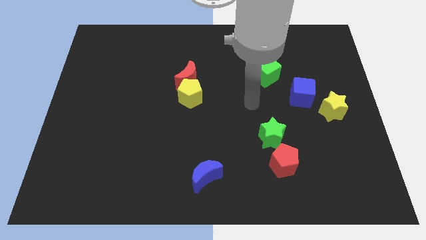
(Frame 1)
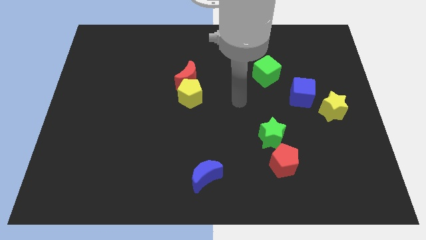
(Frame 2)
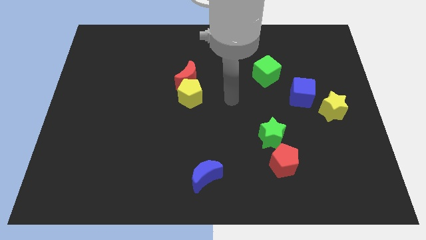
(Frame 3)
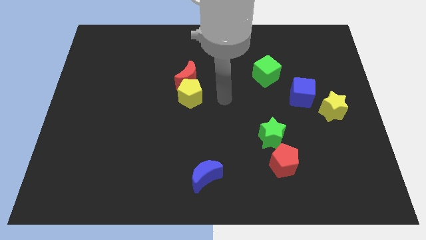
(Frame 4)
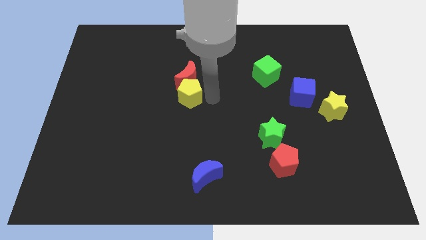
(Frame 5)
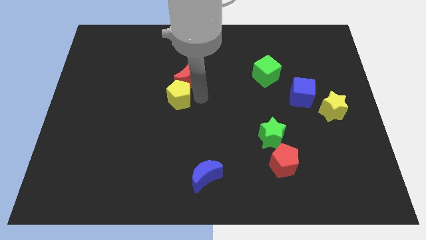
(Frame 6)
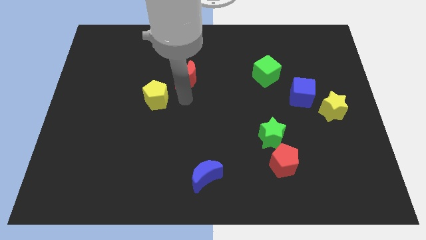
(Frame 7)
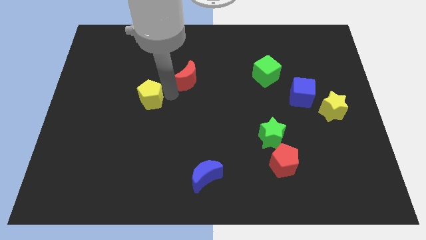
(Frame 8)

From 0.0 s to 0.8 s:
pull the red moon apart from the yellow pentagon

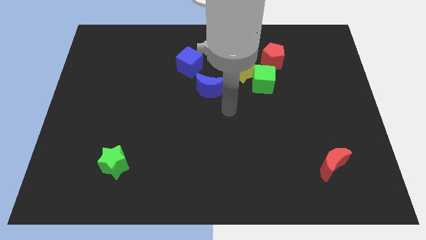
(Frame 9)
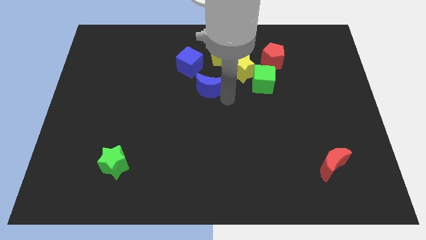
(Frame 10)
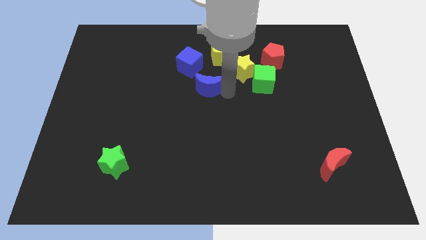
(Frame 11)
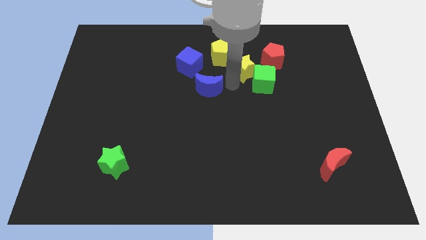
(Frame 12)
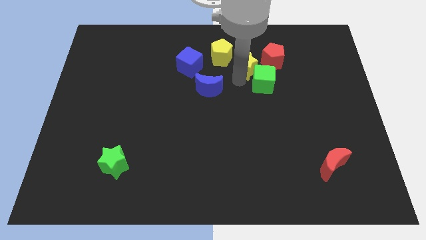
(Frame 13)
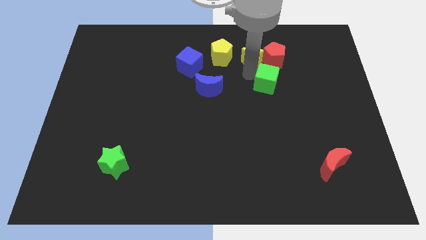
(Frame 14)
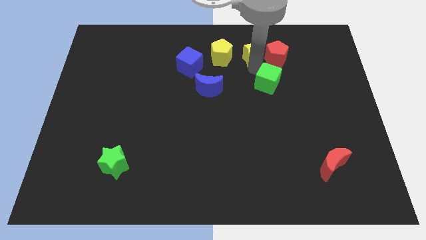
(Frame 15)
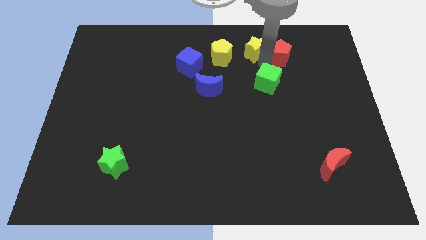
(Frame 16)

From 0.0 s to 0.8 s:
move the green cube away from the yellow star and red pentagon

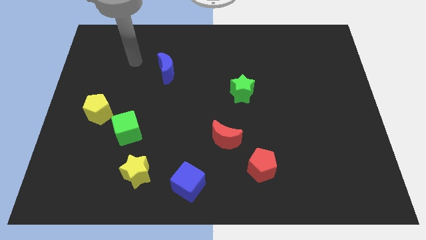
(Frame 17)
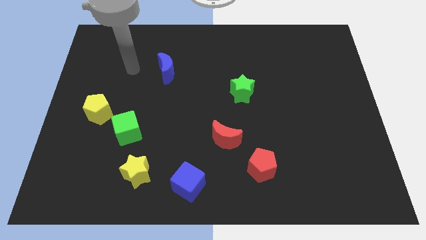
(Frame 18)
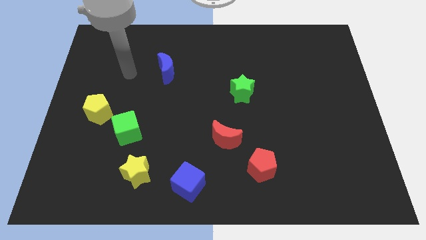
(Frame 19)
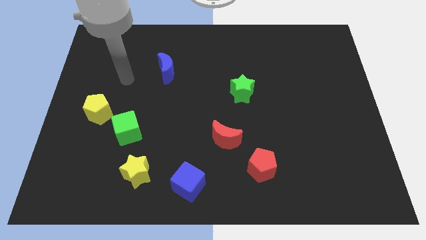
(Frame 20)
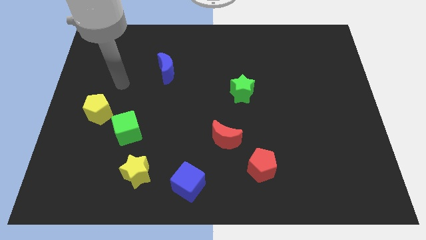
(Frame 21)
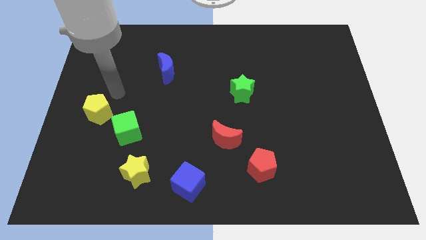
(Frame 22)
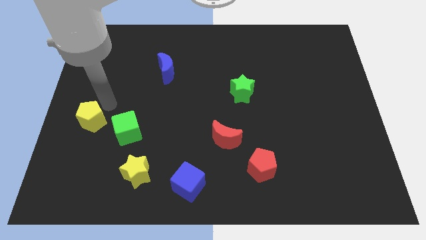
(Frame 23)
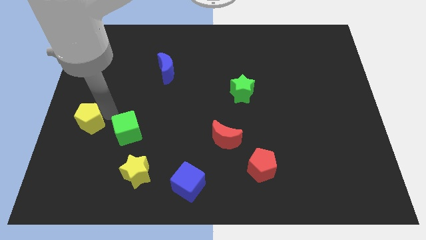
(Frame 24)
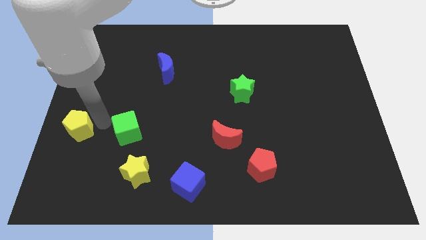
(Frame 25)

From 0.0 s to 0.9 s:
pull the green cube apart from the yellow pentagon

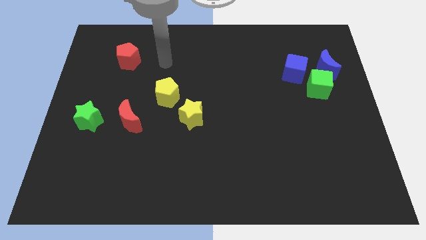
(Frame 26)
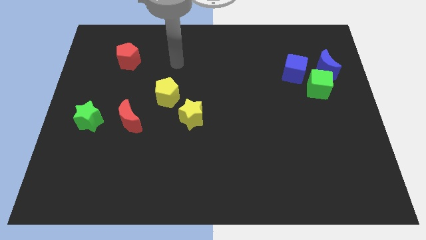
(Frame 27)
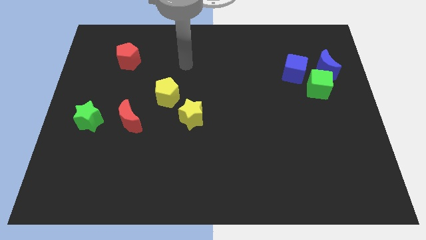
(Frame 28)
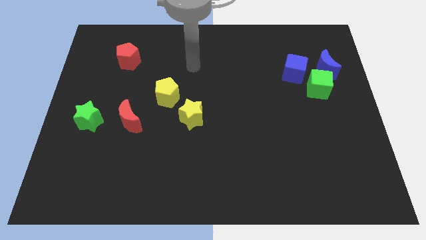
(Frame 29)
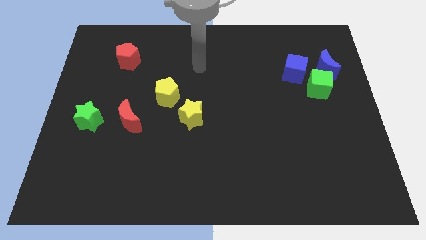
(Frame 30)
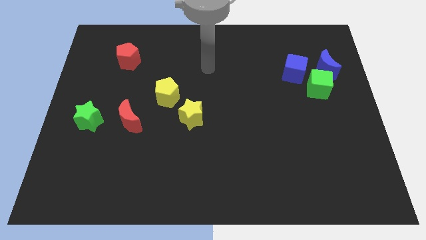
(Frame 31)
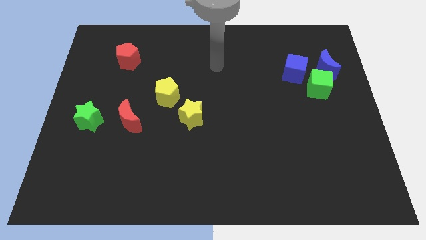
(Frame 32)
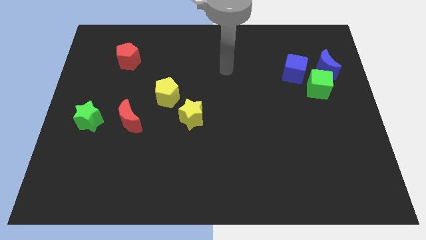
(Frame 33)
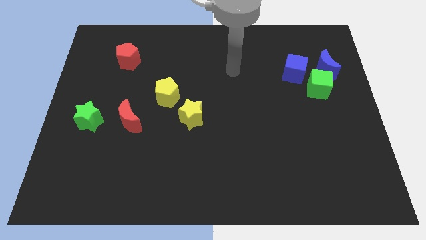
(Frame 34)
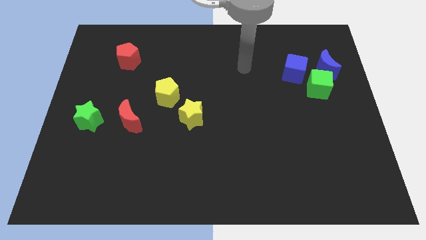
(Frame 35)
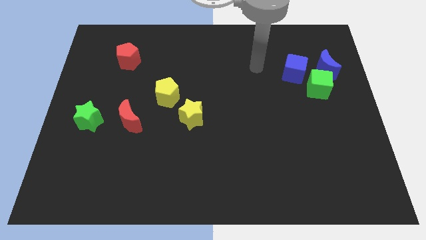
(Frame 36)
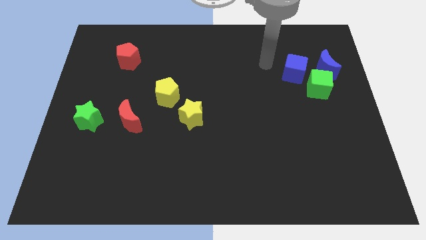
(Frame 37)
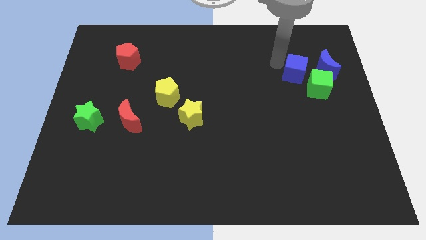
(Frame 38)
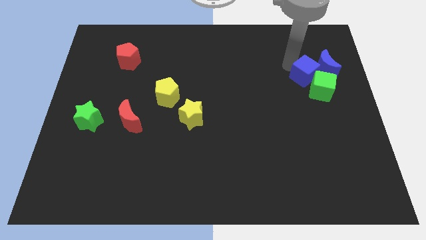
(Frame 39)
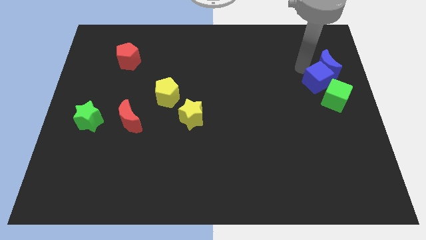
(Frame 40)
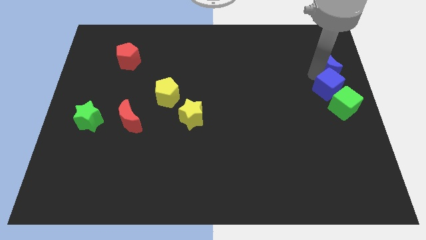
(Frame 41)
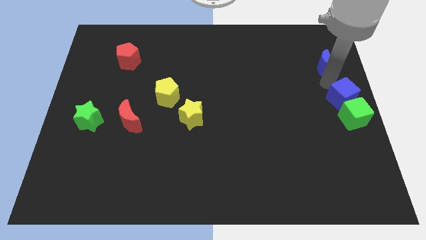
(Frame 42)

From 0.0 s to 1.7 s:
move the green cube away from the blue moon and blue cube

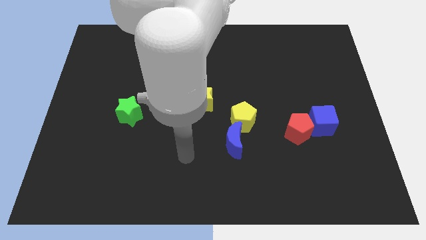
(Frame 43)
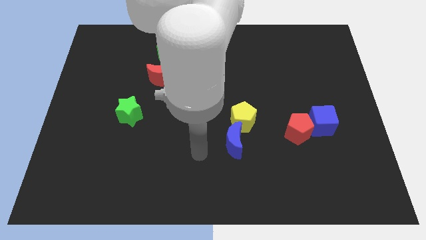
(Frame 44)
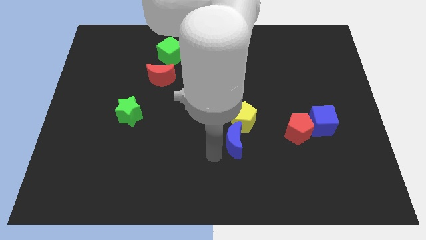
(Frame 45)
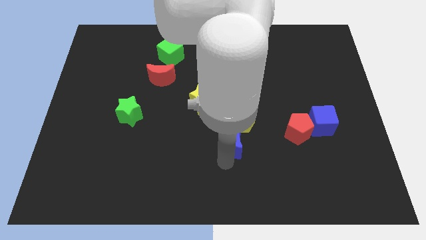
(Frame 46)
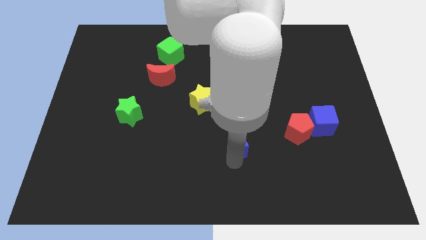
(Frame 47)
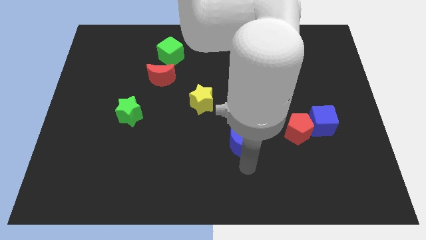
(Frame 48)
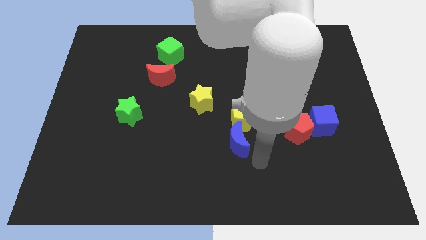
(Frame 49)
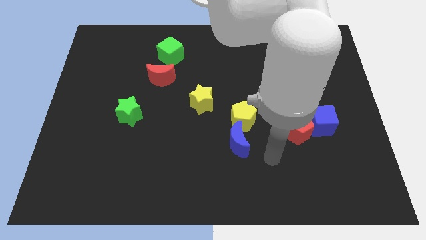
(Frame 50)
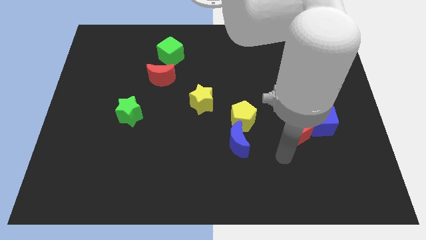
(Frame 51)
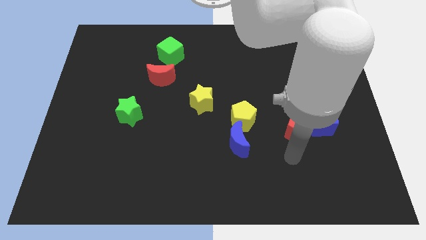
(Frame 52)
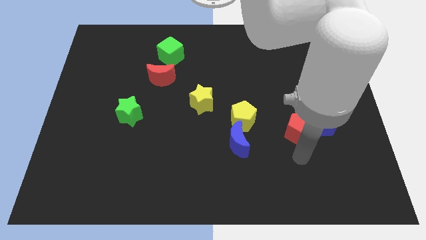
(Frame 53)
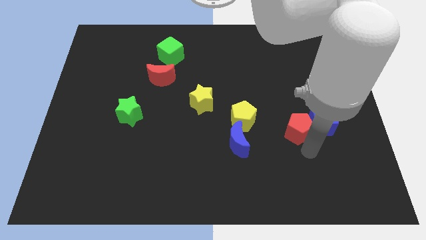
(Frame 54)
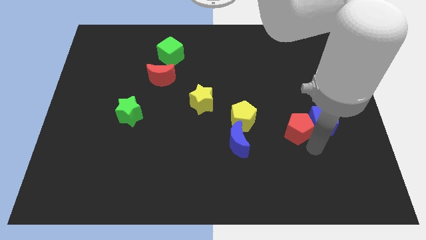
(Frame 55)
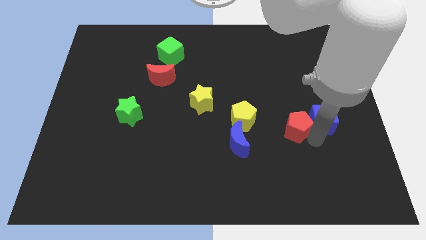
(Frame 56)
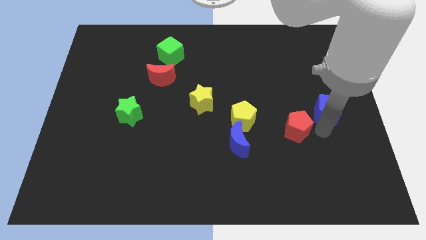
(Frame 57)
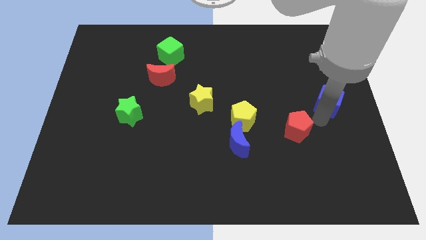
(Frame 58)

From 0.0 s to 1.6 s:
separate the red pentagon from the blue cube

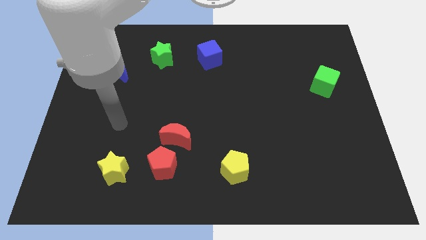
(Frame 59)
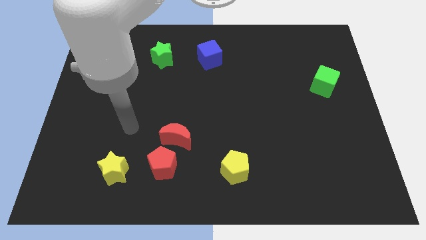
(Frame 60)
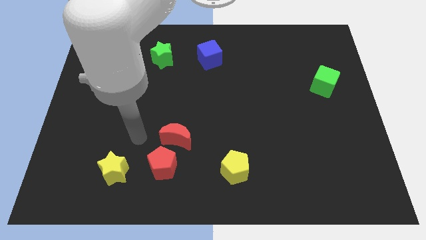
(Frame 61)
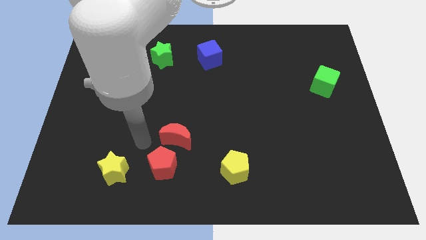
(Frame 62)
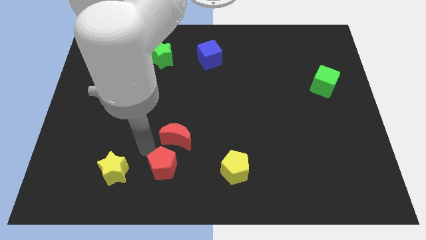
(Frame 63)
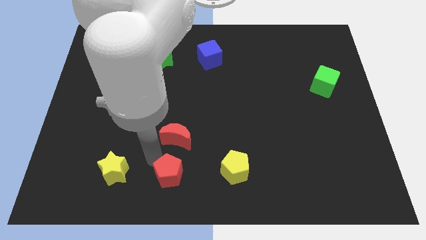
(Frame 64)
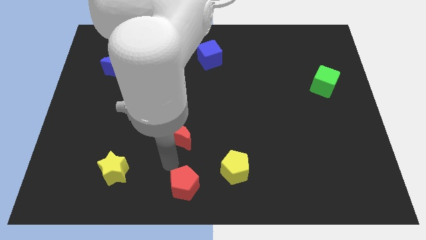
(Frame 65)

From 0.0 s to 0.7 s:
move the red moon away from the red pentagon

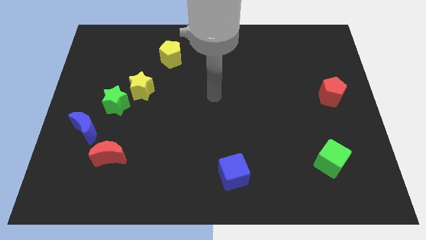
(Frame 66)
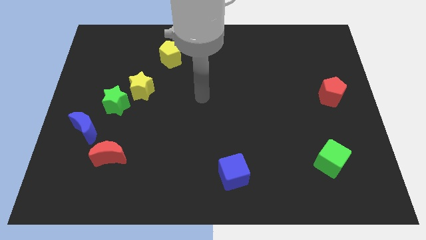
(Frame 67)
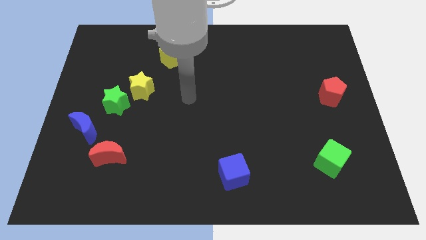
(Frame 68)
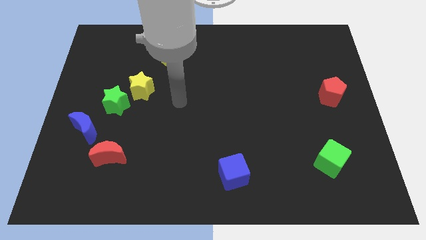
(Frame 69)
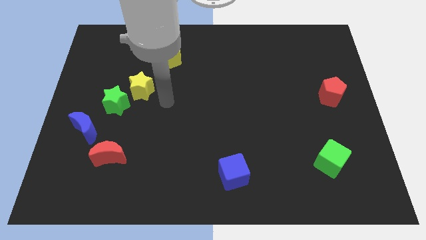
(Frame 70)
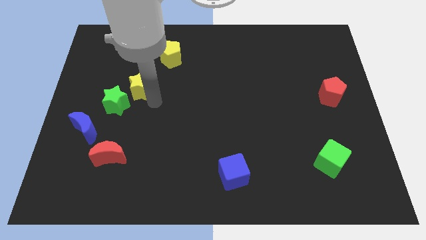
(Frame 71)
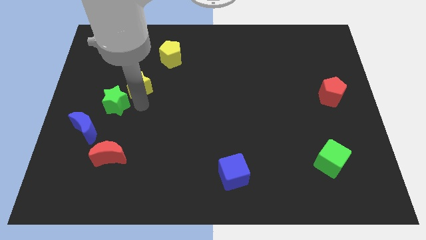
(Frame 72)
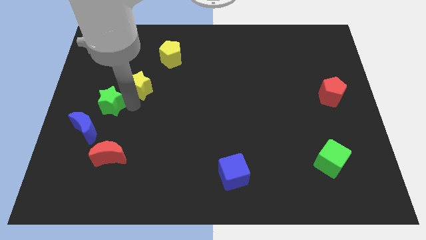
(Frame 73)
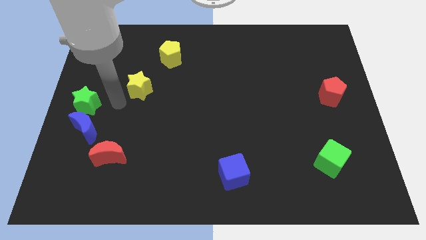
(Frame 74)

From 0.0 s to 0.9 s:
move the yellow star away from the green star

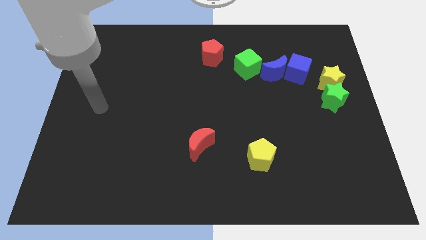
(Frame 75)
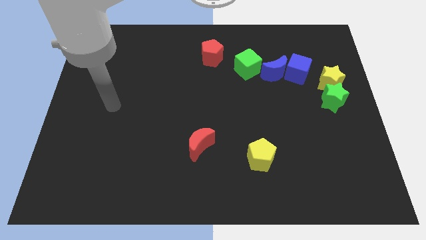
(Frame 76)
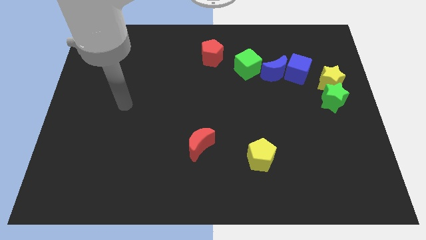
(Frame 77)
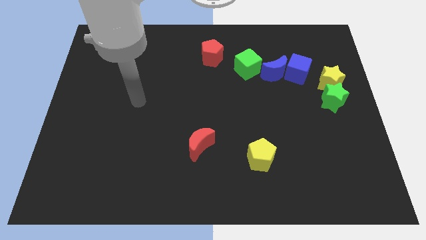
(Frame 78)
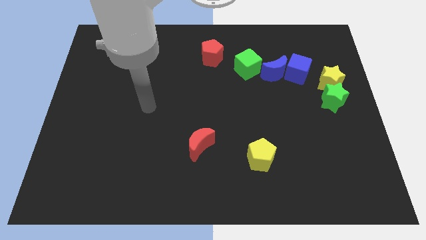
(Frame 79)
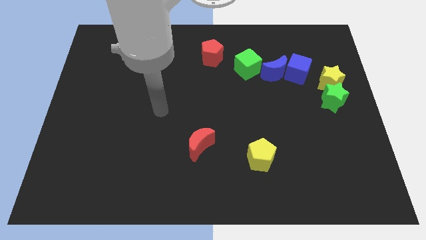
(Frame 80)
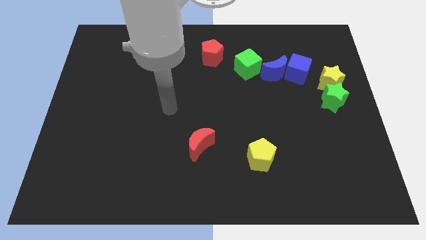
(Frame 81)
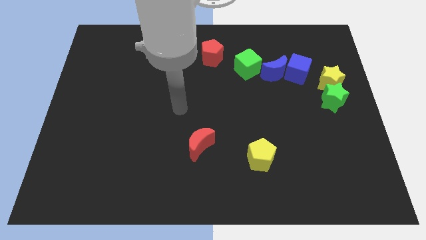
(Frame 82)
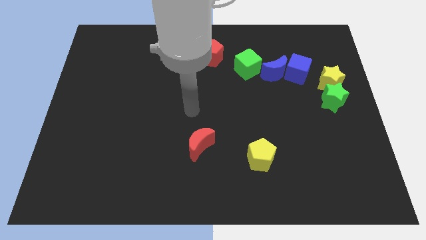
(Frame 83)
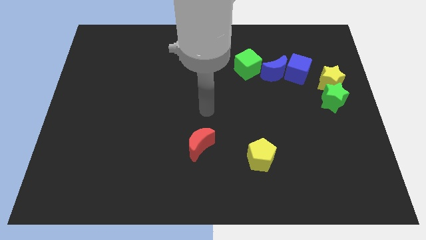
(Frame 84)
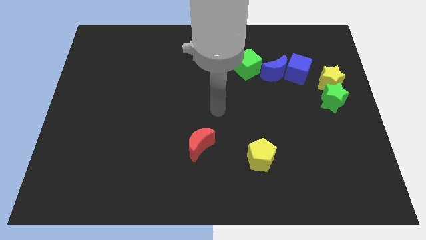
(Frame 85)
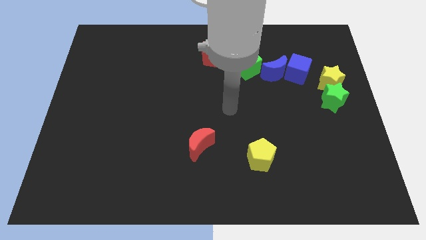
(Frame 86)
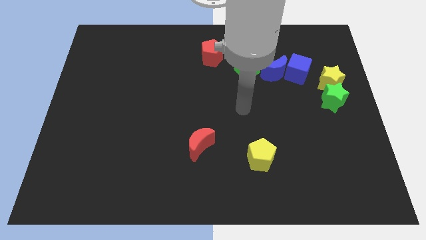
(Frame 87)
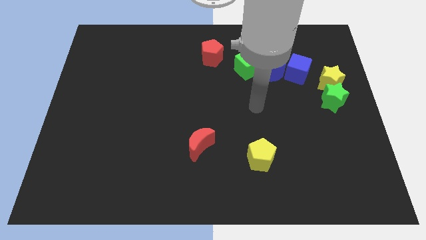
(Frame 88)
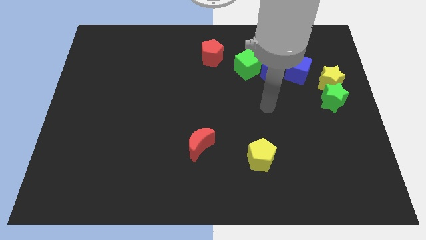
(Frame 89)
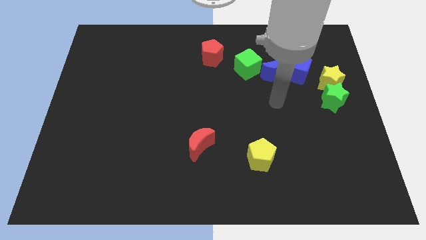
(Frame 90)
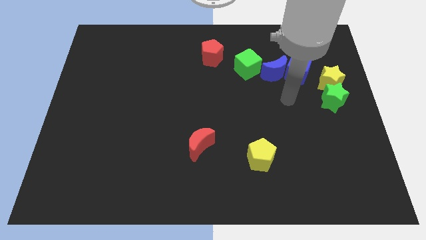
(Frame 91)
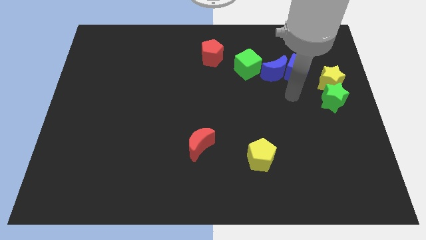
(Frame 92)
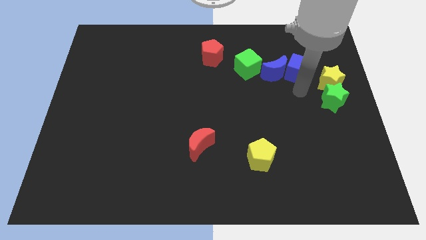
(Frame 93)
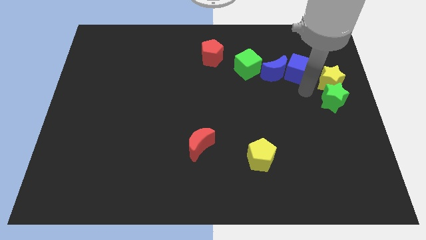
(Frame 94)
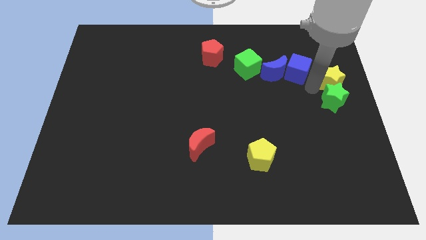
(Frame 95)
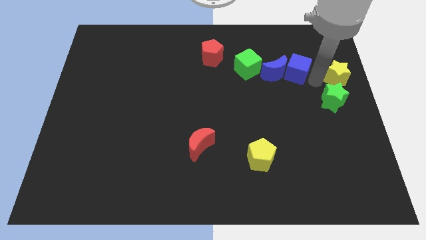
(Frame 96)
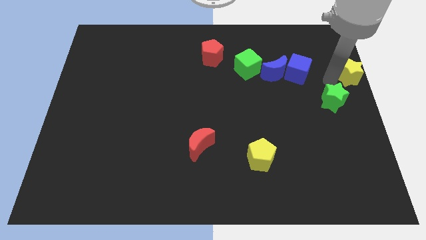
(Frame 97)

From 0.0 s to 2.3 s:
move the green star away from the yellow star
